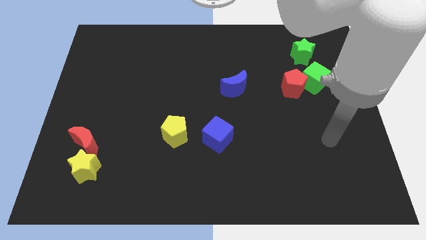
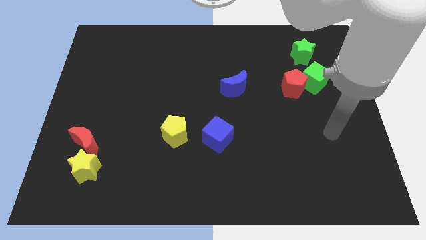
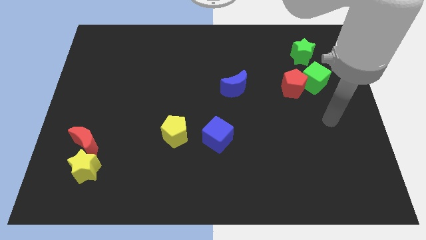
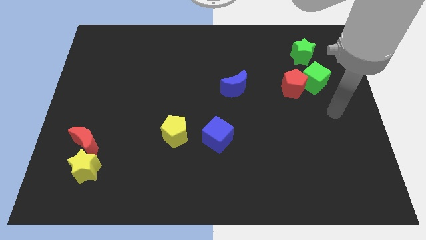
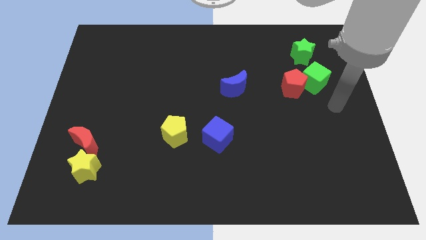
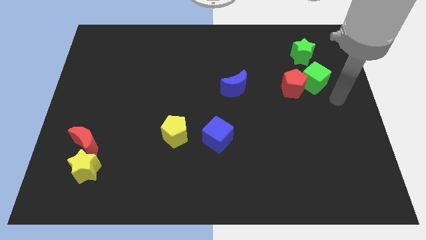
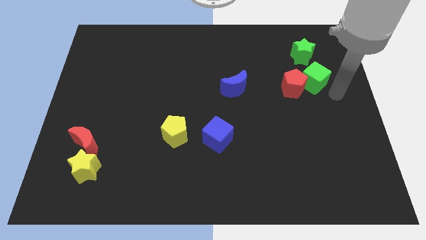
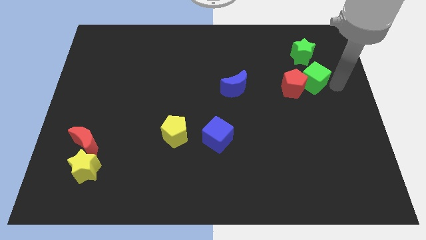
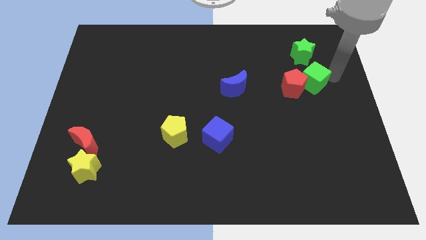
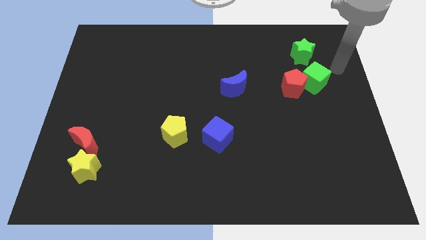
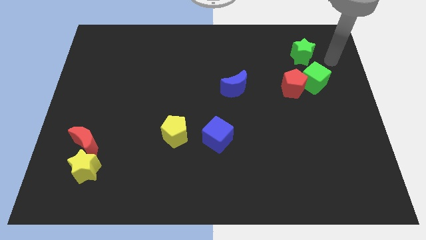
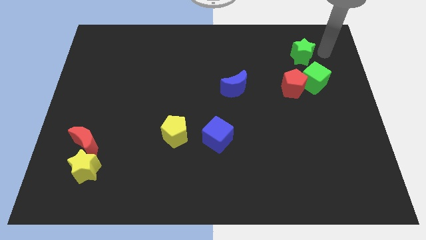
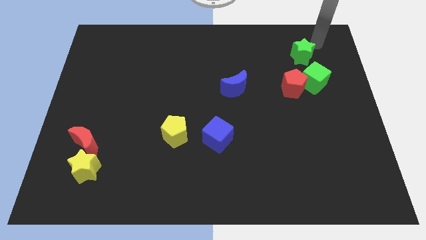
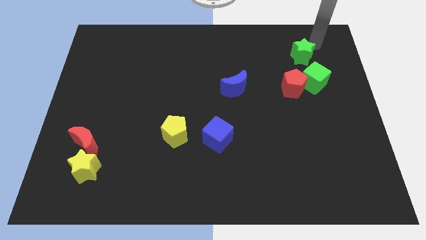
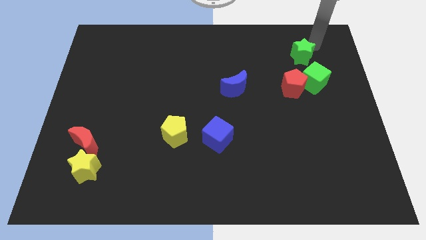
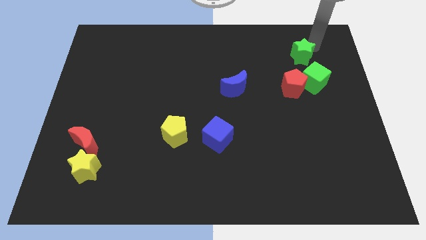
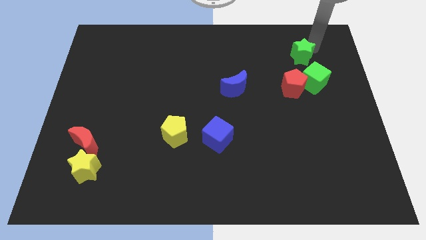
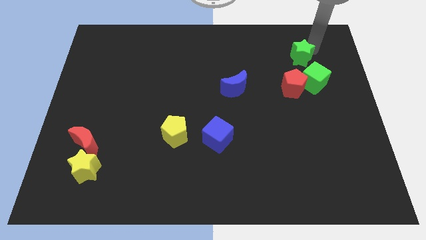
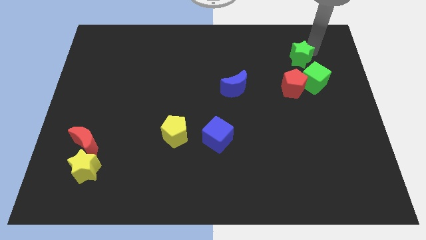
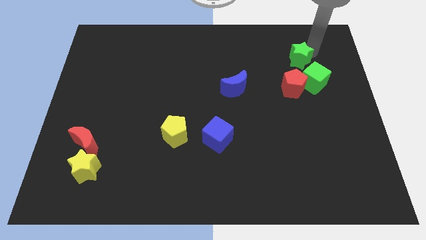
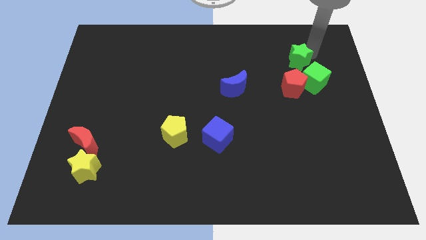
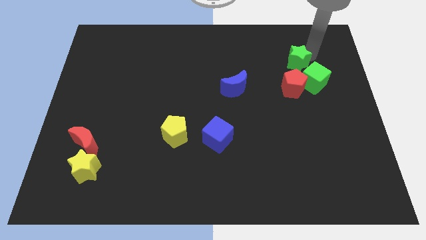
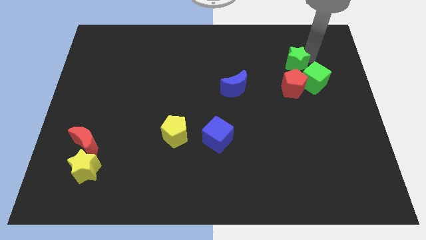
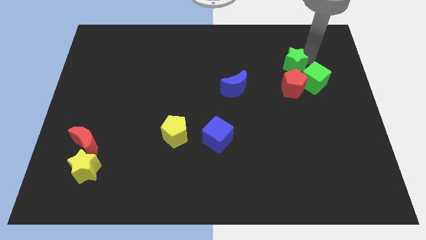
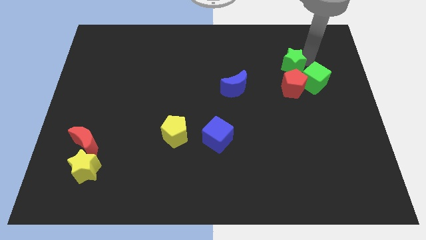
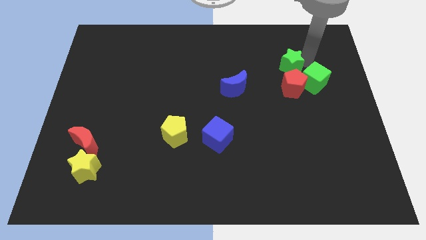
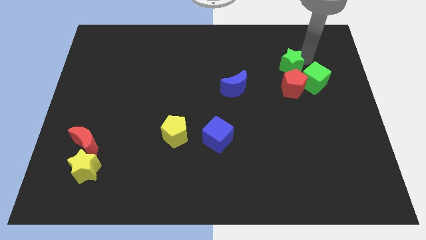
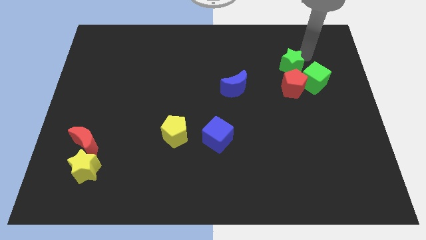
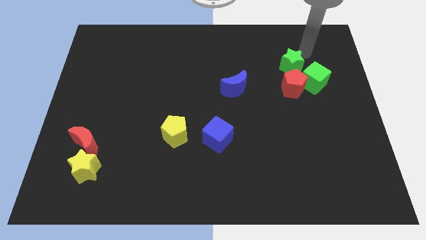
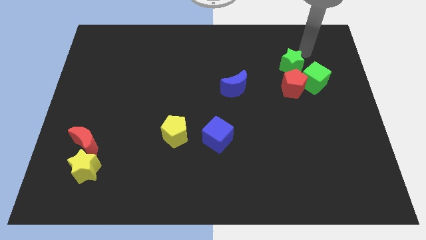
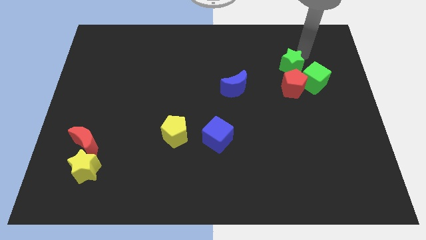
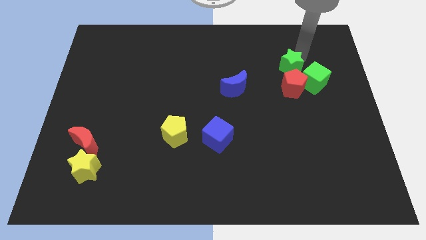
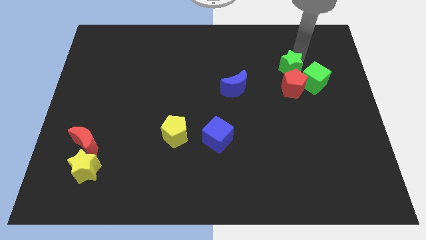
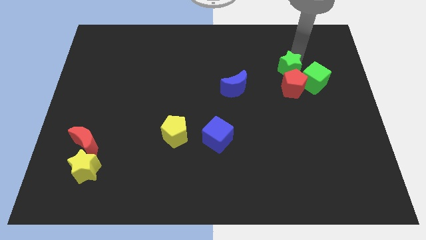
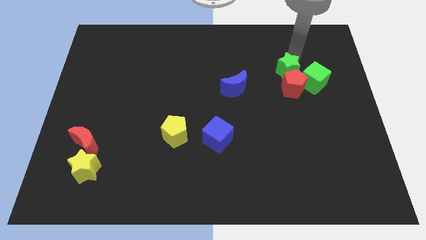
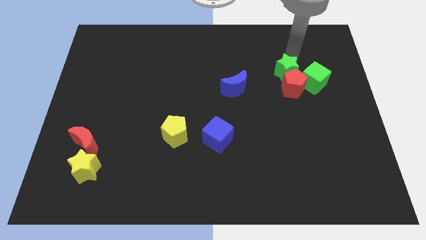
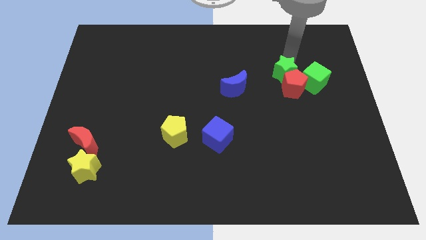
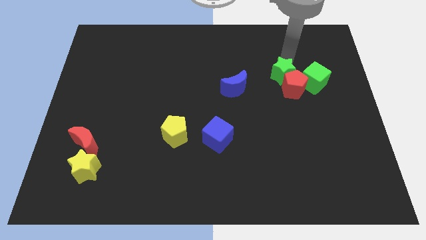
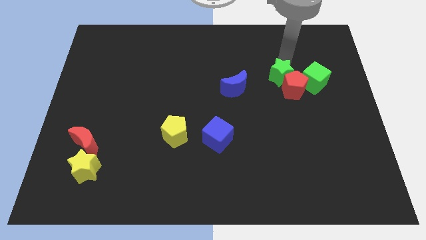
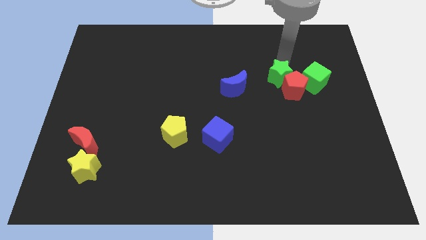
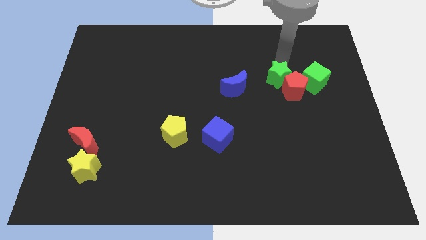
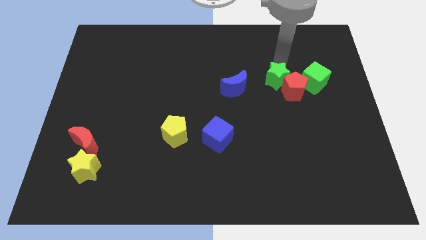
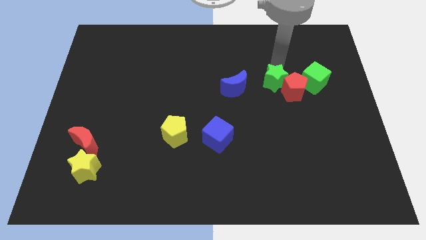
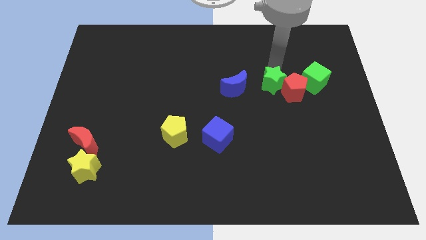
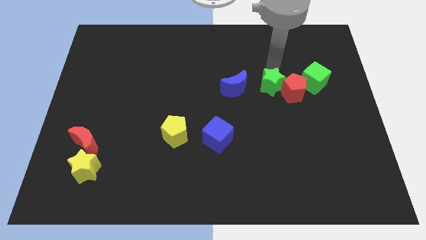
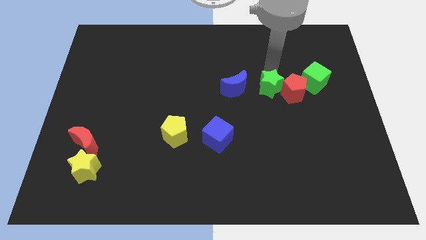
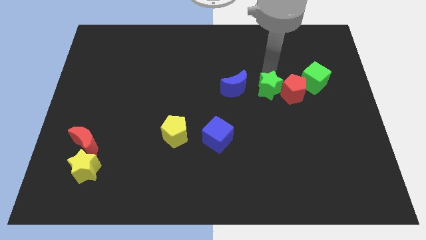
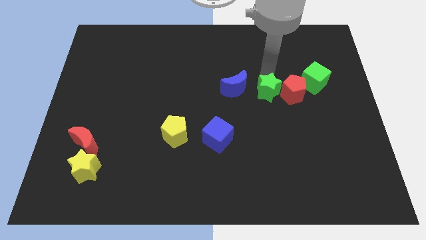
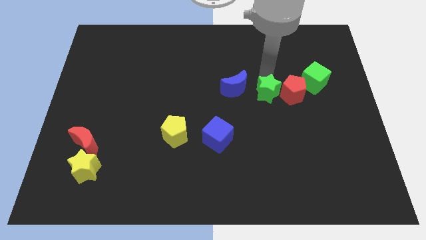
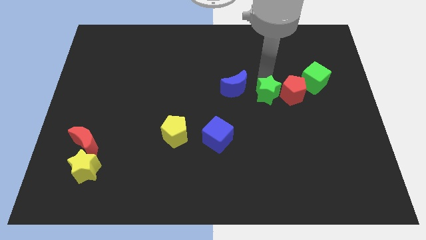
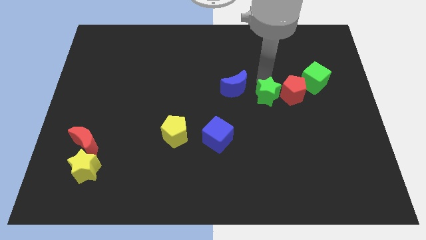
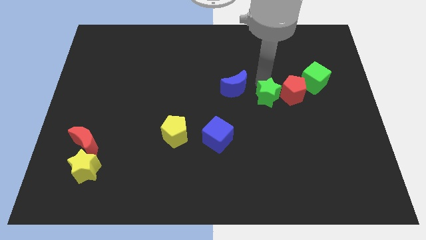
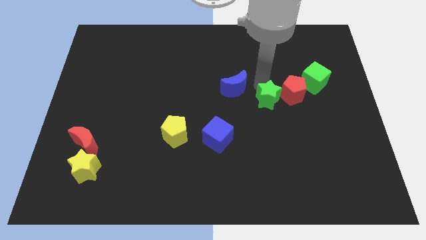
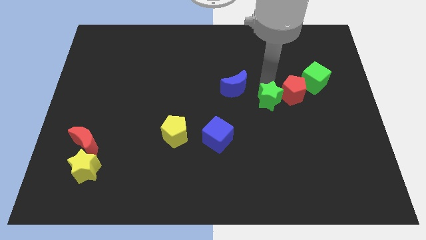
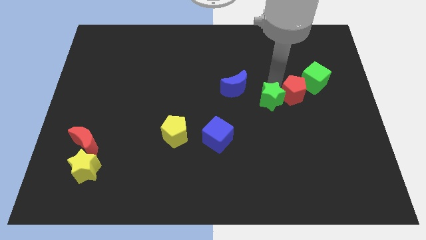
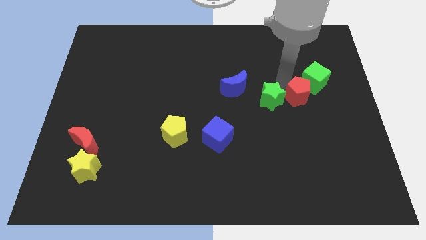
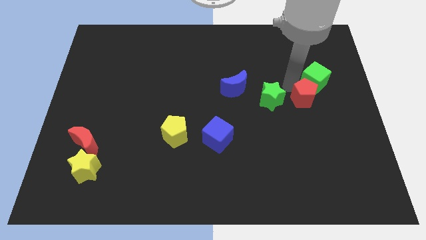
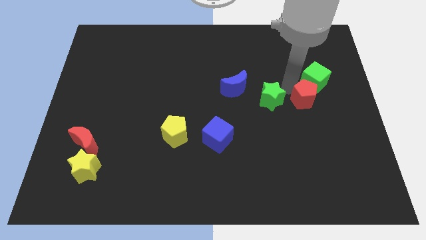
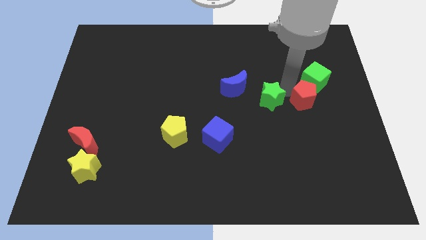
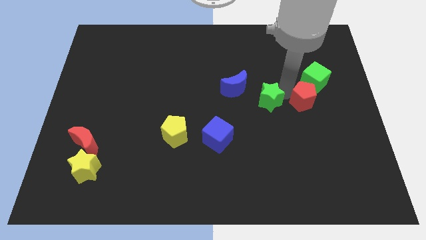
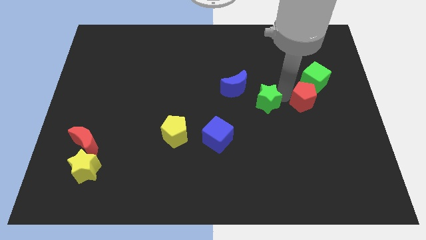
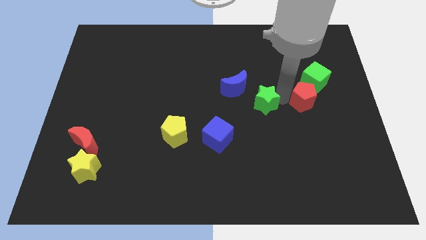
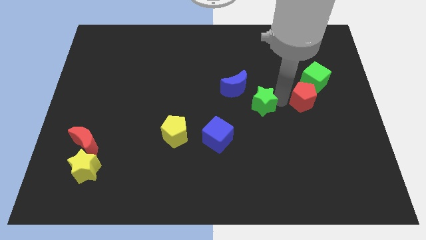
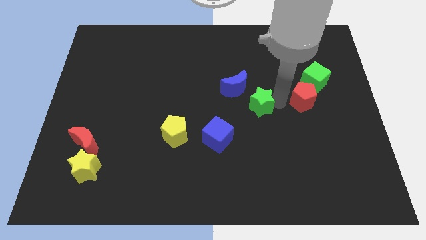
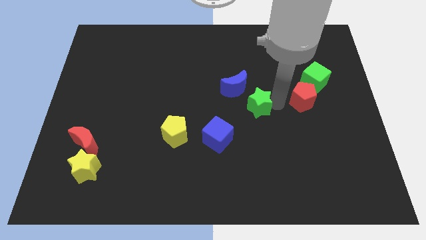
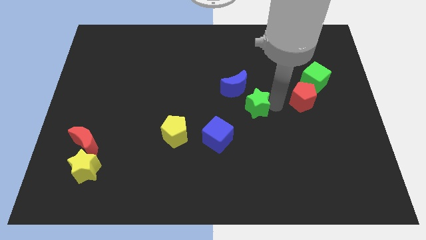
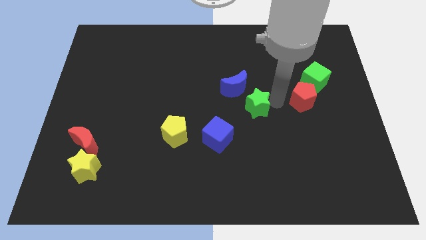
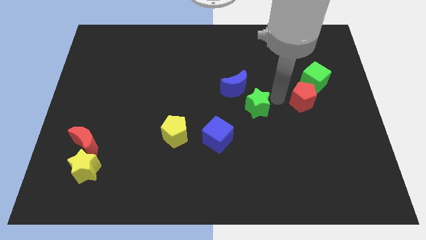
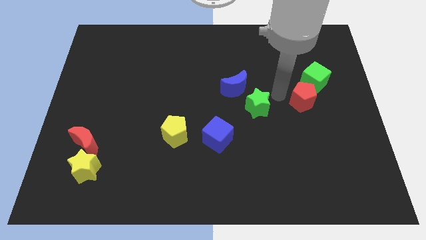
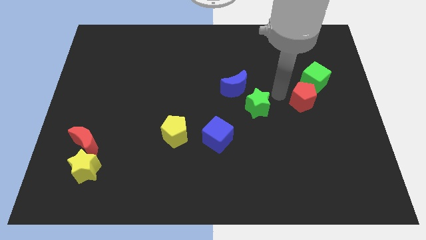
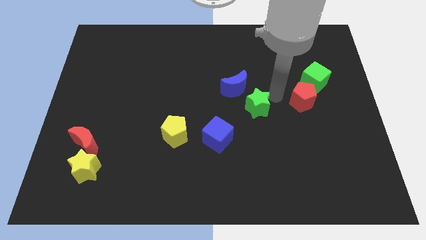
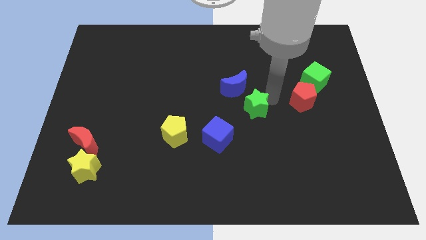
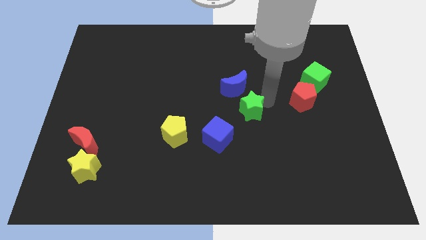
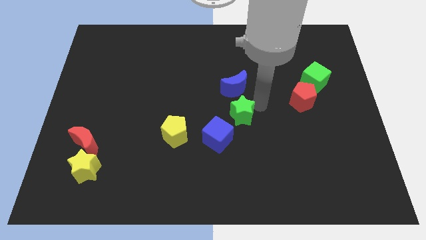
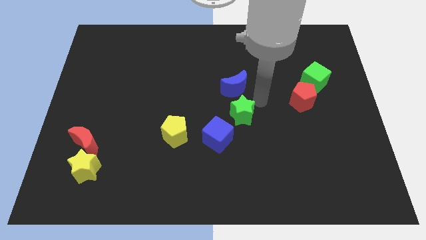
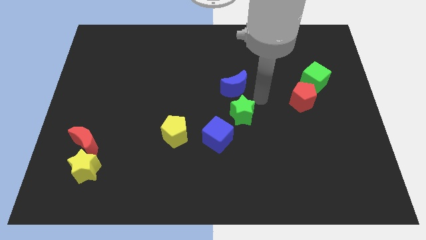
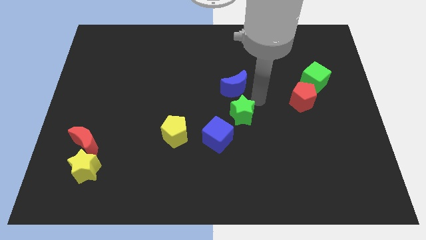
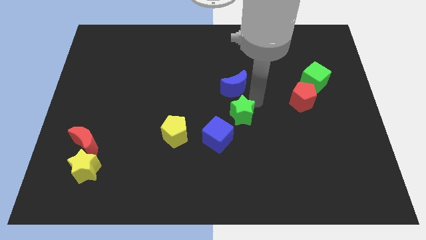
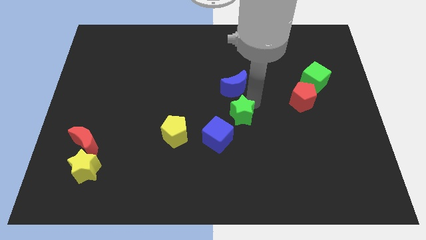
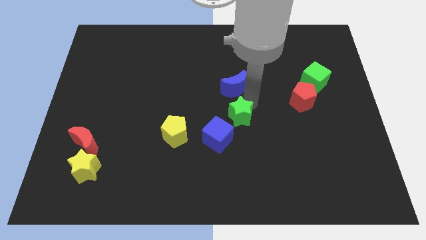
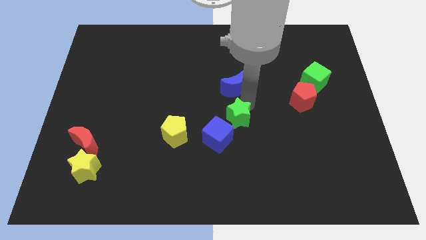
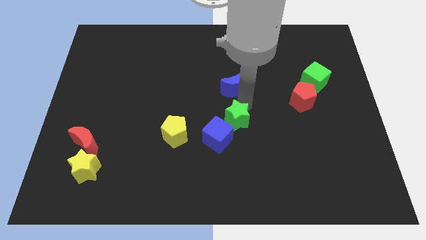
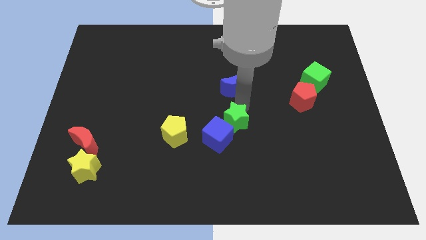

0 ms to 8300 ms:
slide the green star right of the yellow pentagon

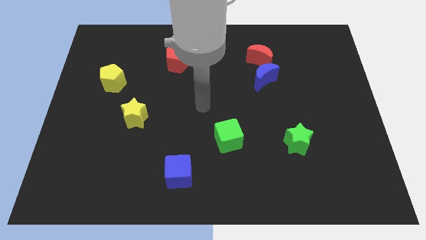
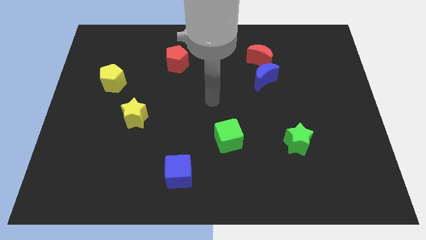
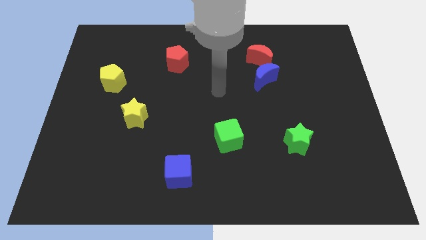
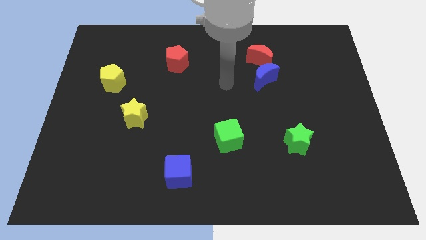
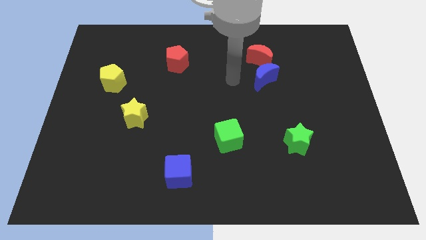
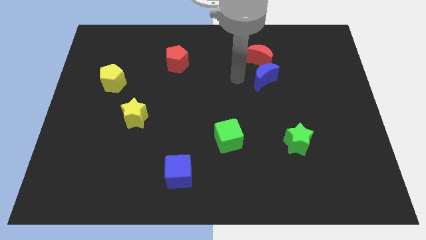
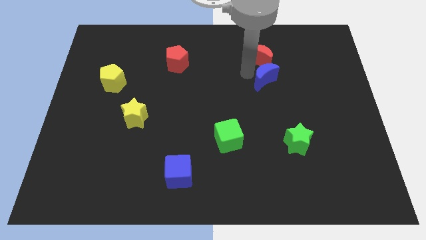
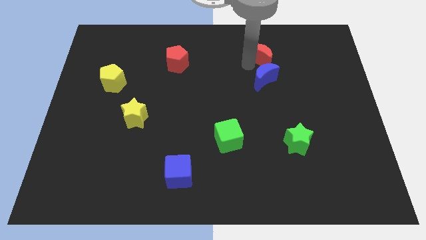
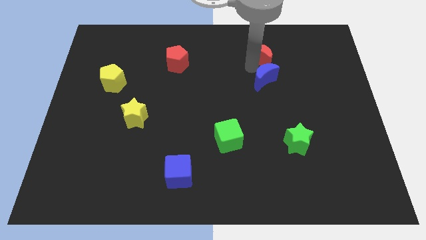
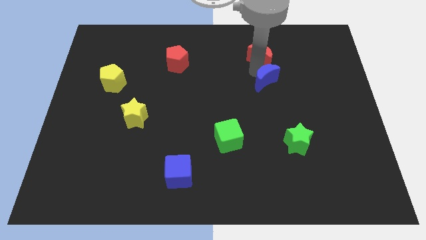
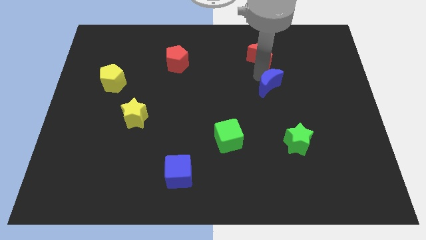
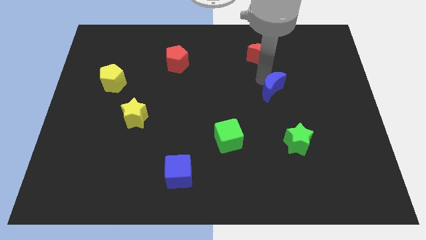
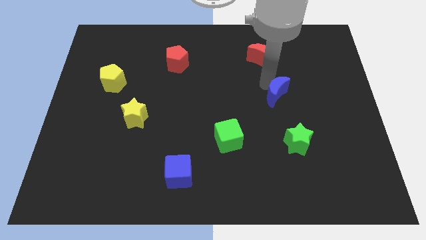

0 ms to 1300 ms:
move the blue moon above the green star
